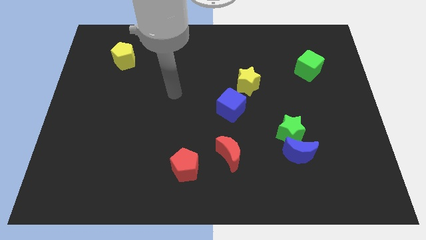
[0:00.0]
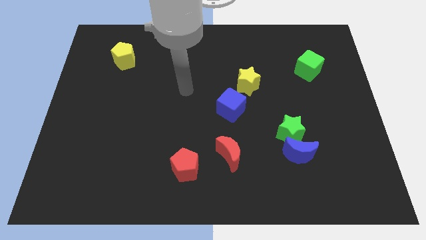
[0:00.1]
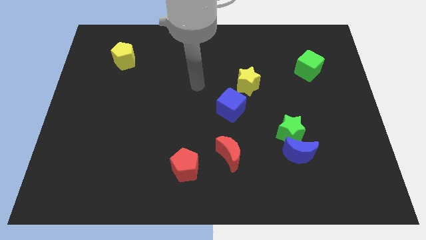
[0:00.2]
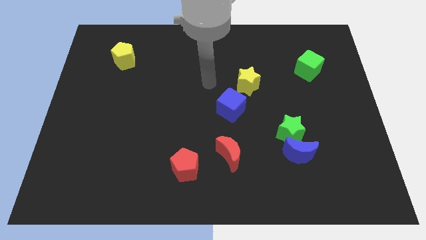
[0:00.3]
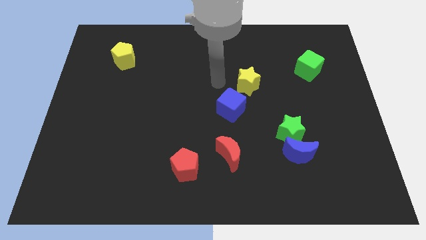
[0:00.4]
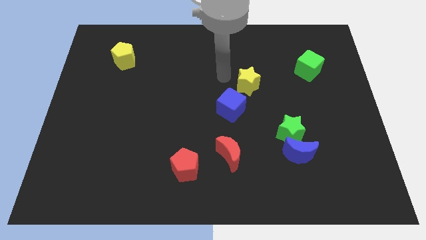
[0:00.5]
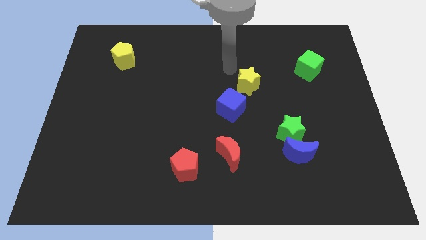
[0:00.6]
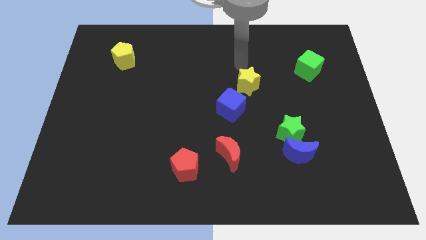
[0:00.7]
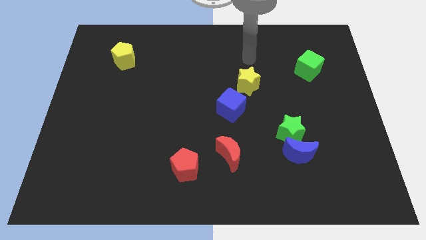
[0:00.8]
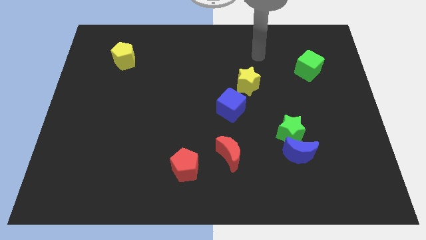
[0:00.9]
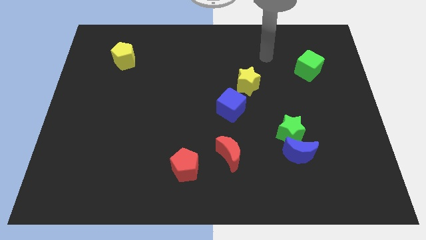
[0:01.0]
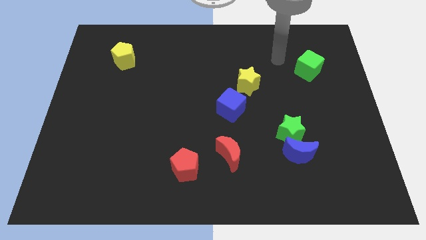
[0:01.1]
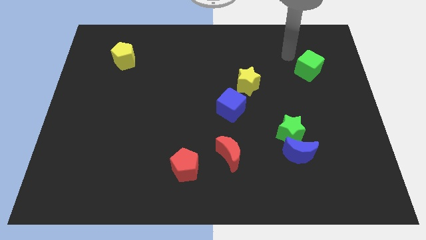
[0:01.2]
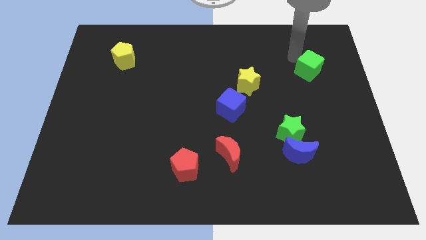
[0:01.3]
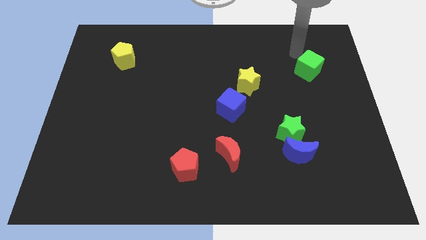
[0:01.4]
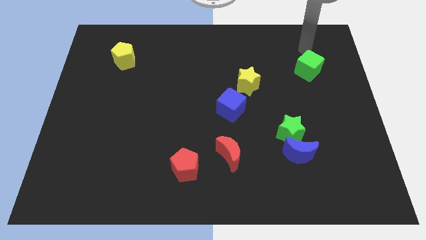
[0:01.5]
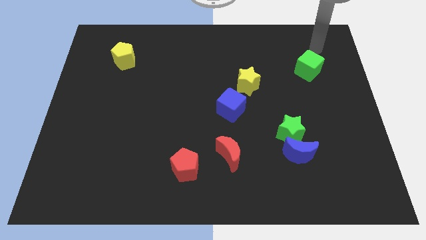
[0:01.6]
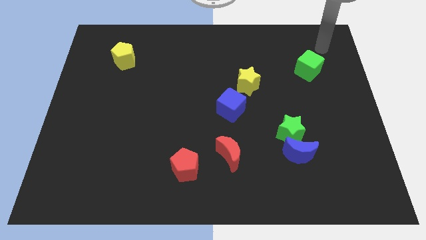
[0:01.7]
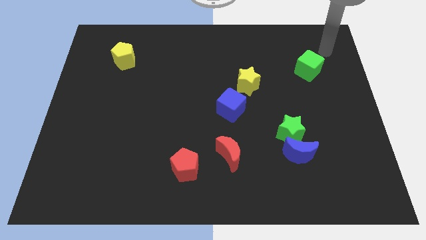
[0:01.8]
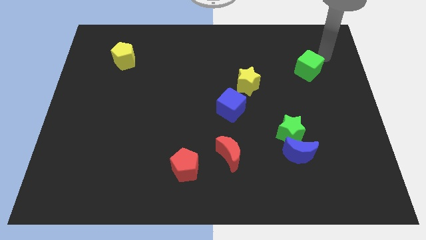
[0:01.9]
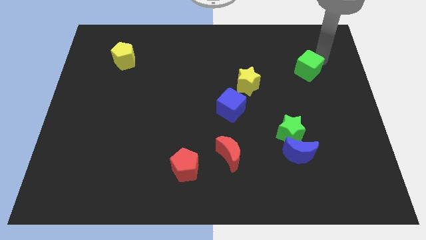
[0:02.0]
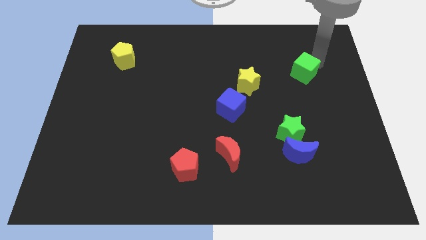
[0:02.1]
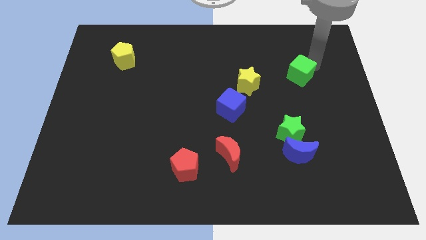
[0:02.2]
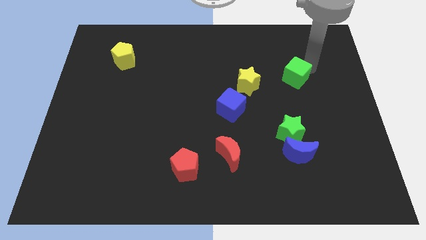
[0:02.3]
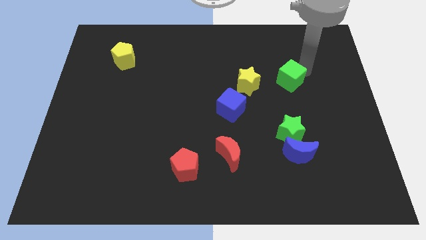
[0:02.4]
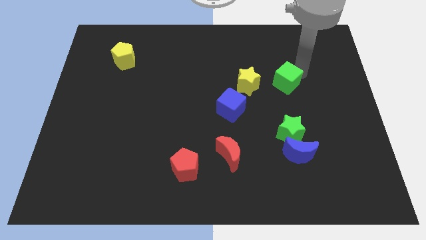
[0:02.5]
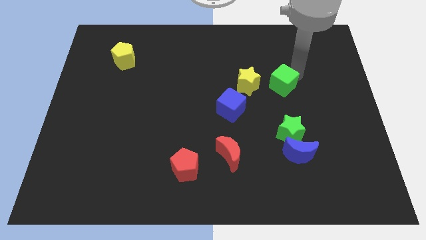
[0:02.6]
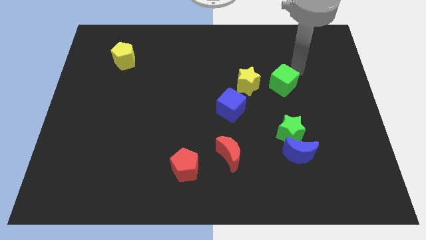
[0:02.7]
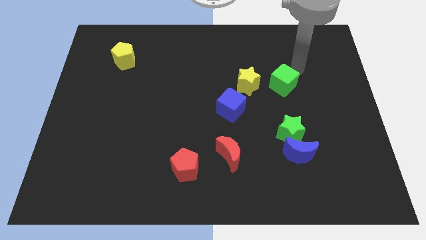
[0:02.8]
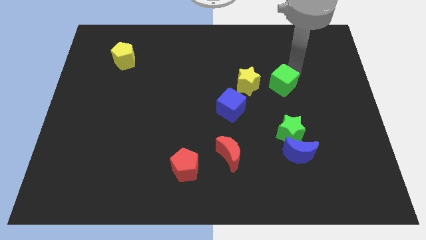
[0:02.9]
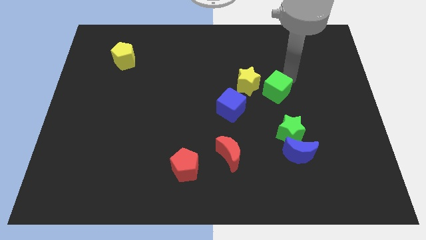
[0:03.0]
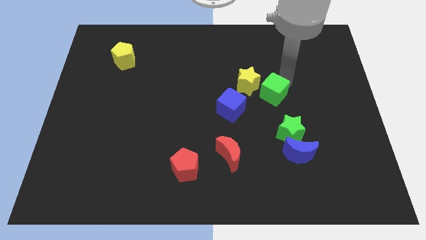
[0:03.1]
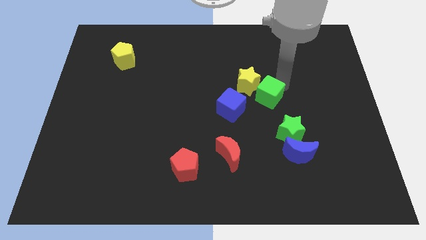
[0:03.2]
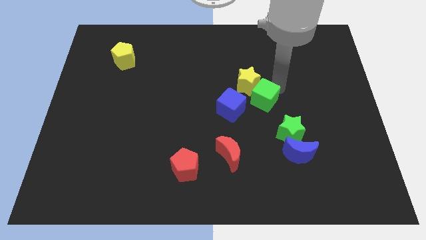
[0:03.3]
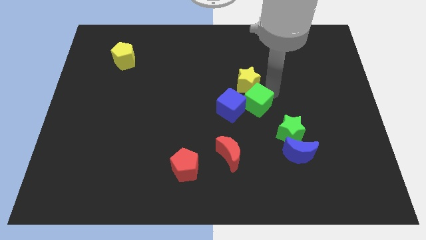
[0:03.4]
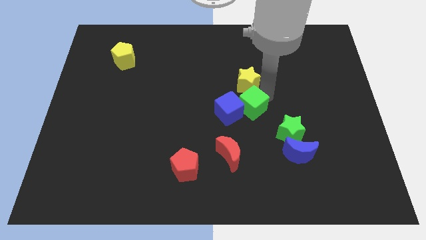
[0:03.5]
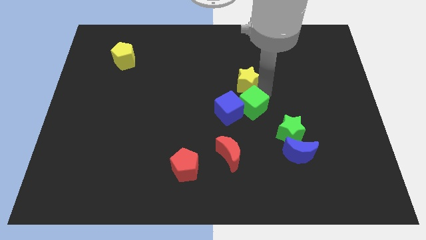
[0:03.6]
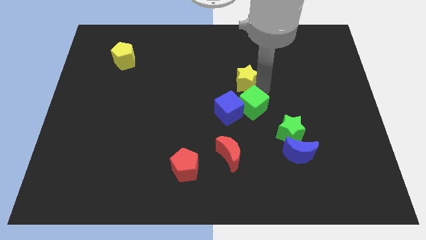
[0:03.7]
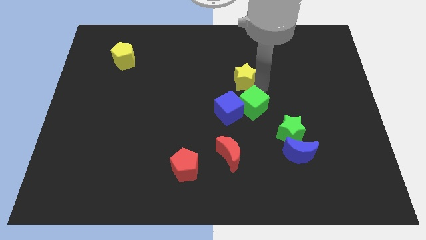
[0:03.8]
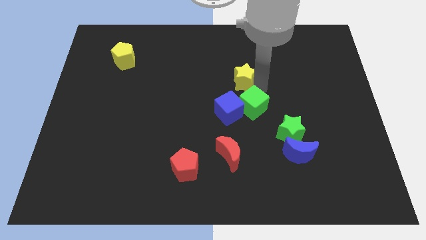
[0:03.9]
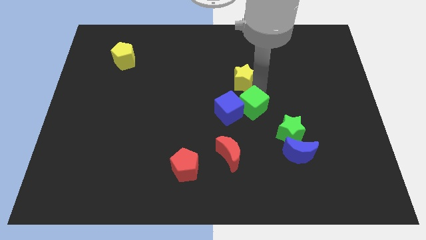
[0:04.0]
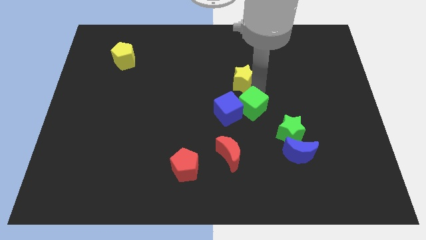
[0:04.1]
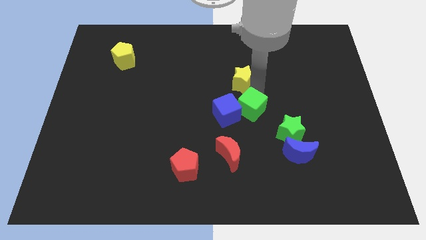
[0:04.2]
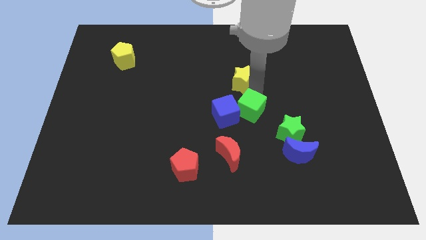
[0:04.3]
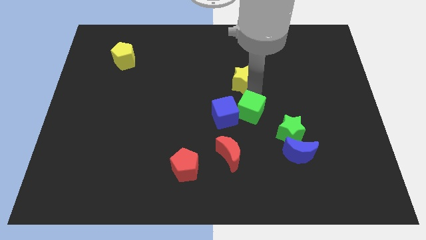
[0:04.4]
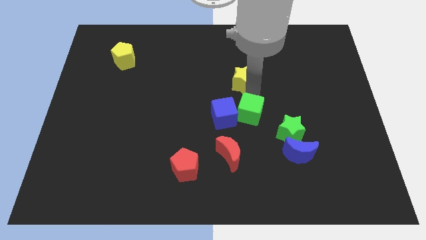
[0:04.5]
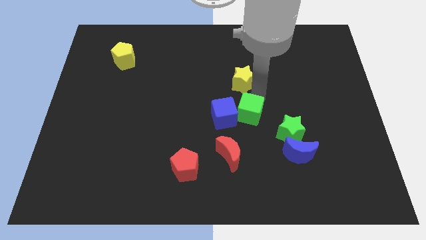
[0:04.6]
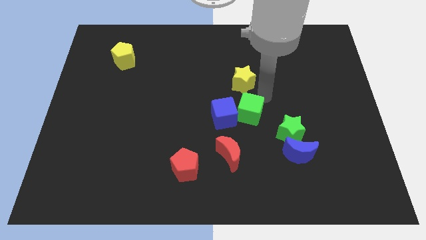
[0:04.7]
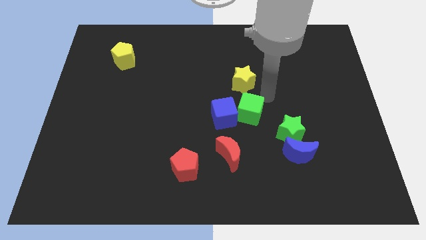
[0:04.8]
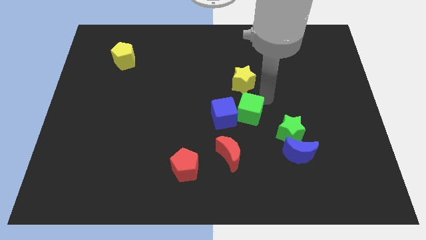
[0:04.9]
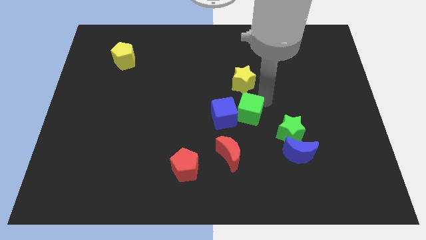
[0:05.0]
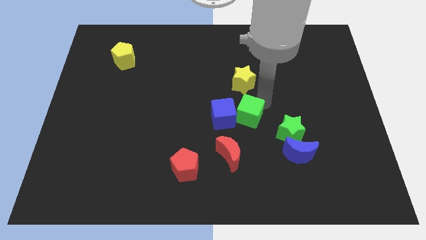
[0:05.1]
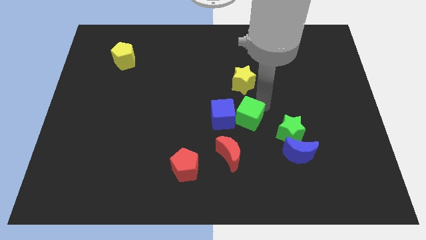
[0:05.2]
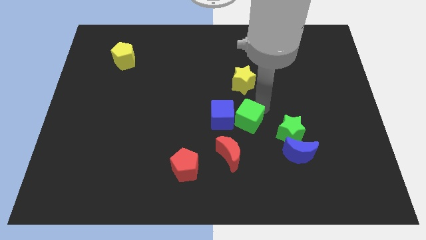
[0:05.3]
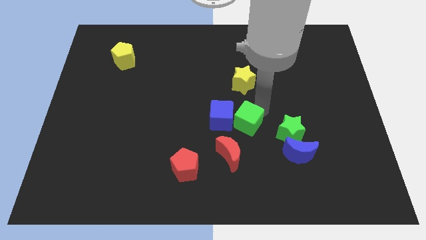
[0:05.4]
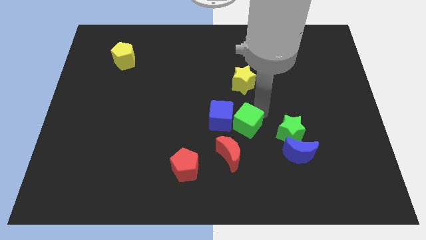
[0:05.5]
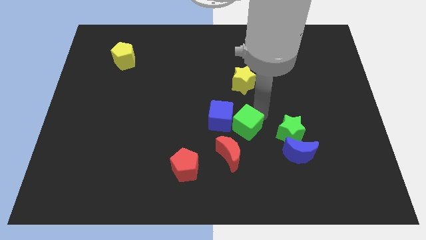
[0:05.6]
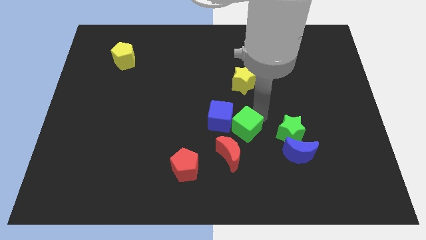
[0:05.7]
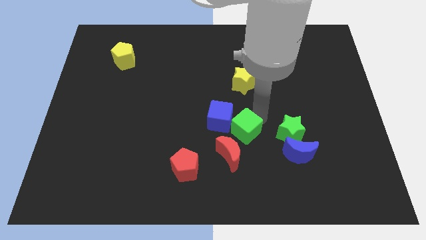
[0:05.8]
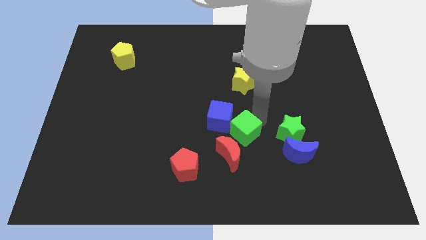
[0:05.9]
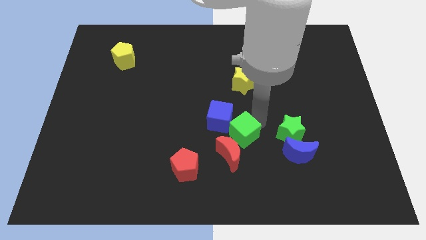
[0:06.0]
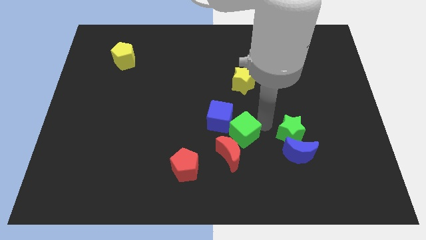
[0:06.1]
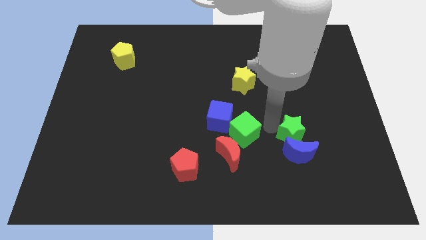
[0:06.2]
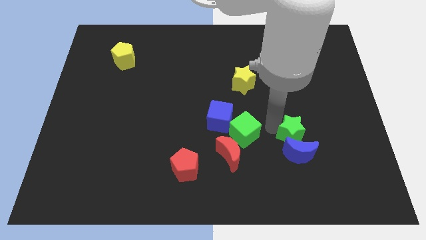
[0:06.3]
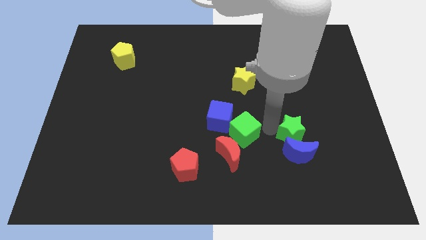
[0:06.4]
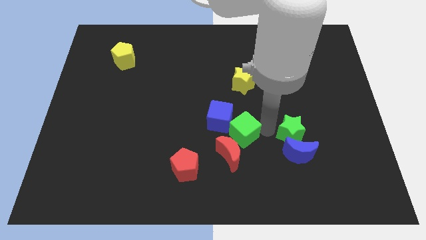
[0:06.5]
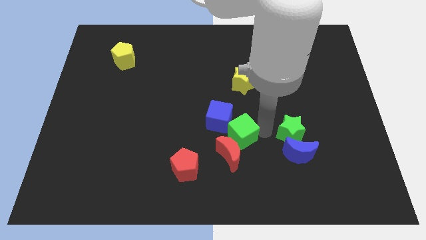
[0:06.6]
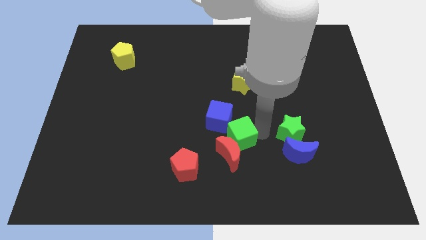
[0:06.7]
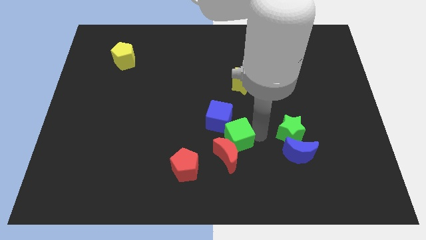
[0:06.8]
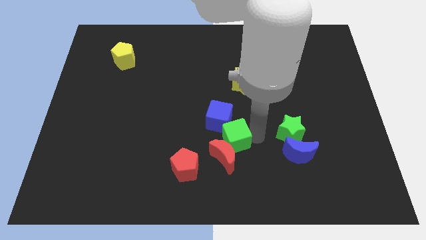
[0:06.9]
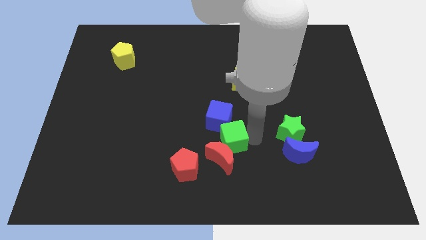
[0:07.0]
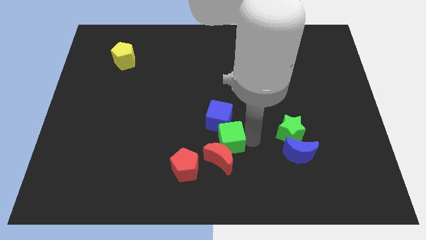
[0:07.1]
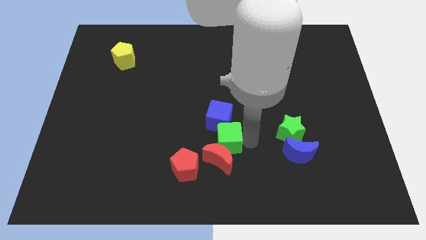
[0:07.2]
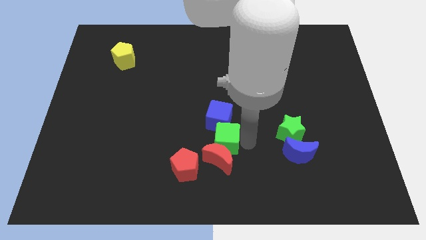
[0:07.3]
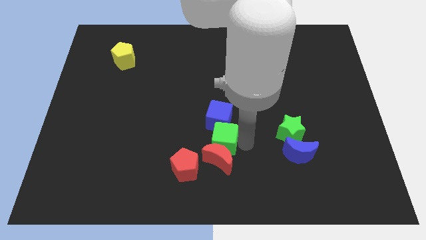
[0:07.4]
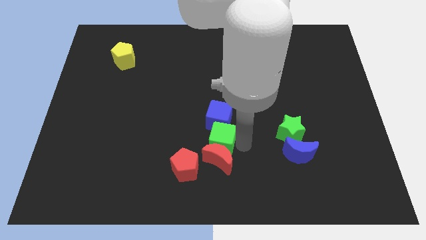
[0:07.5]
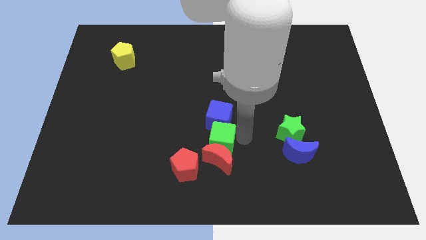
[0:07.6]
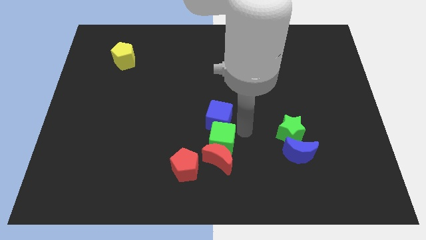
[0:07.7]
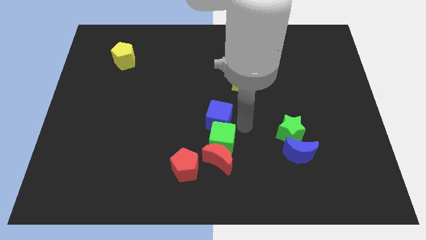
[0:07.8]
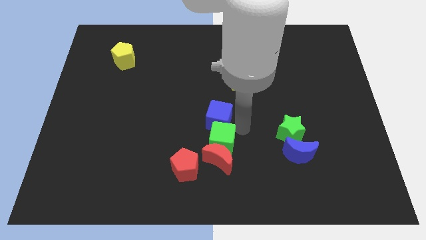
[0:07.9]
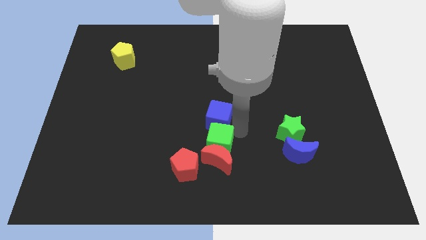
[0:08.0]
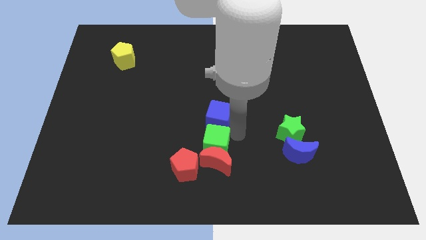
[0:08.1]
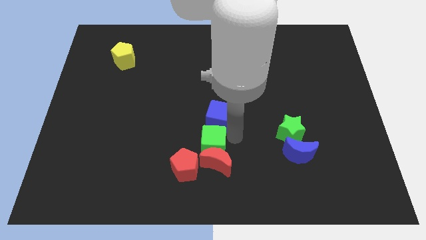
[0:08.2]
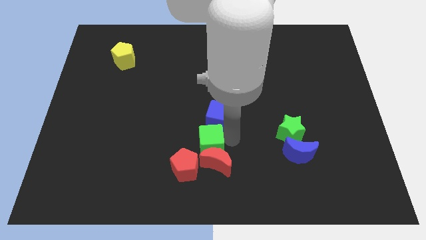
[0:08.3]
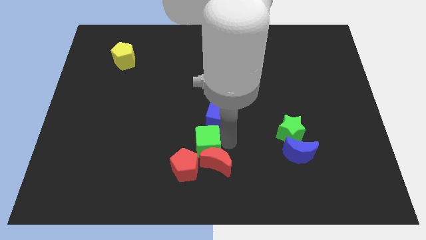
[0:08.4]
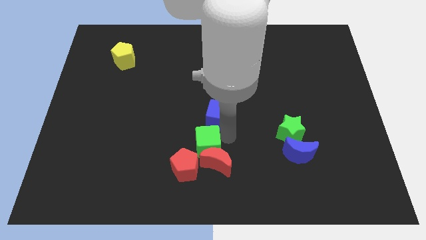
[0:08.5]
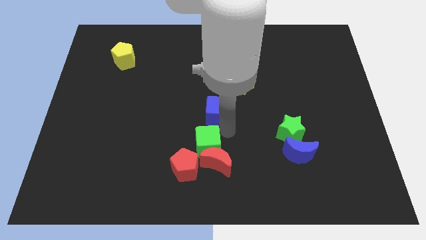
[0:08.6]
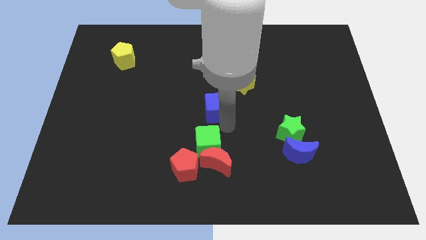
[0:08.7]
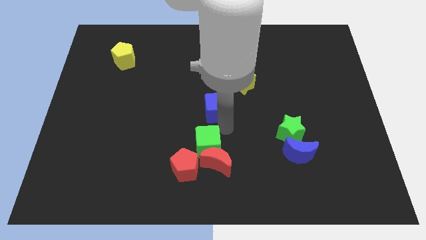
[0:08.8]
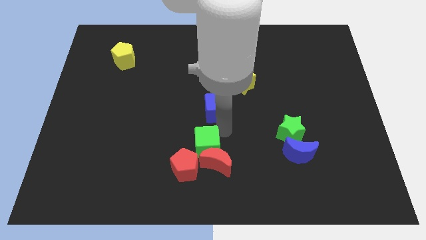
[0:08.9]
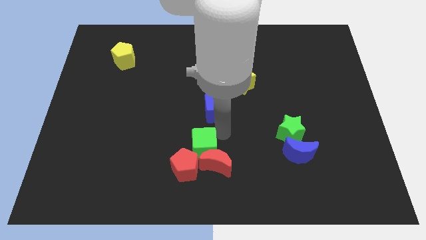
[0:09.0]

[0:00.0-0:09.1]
put the green cube close to the red pentagon
